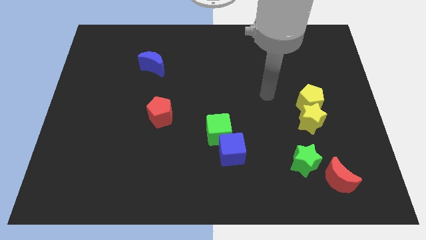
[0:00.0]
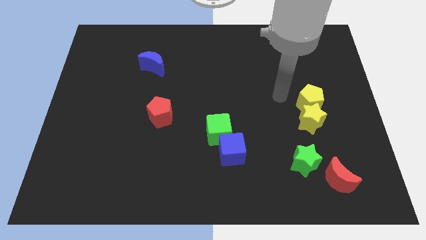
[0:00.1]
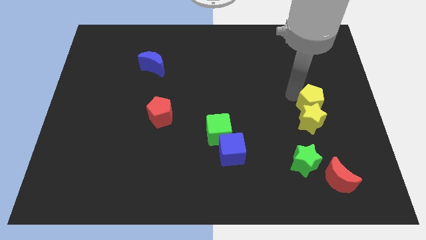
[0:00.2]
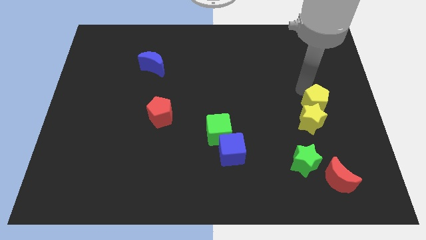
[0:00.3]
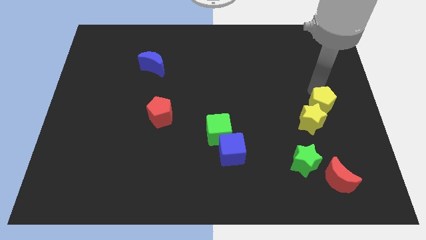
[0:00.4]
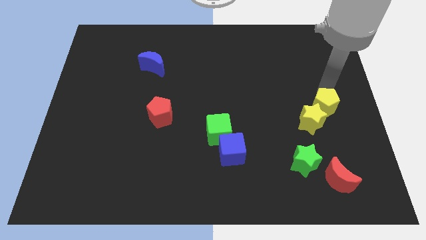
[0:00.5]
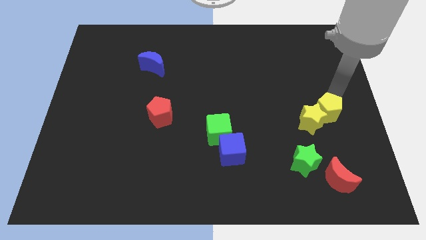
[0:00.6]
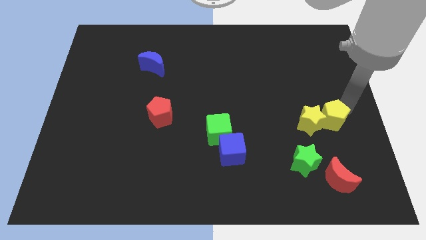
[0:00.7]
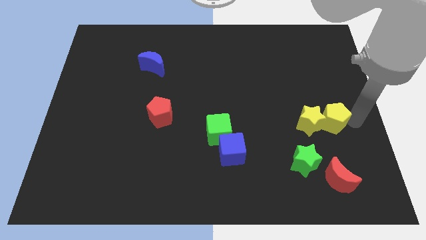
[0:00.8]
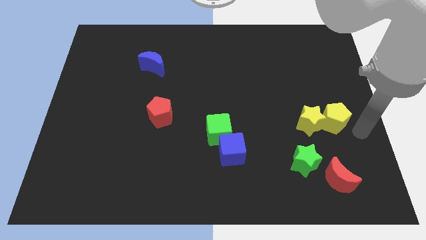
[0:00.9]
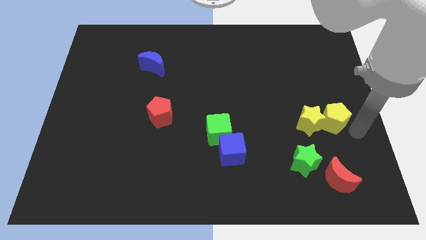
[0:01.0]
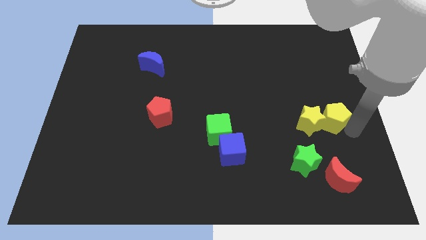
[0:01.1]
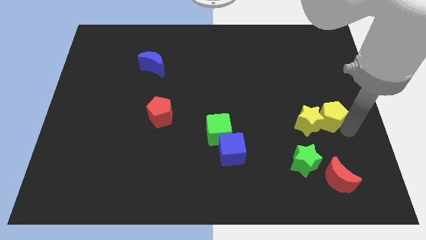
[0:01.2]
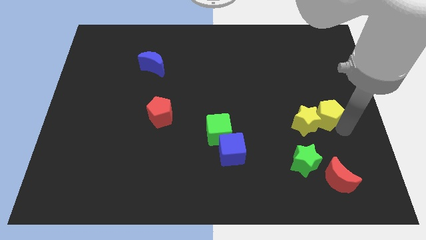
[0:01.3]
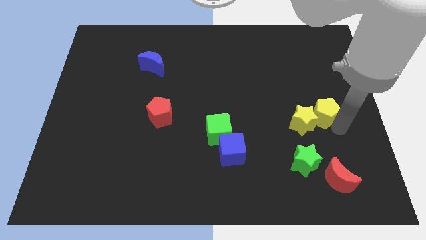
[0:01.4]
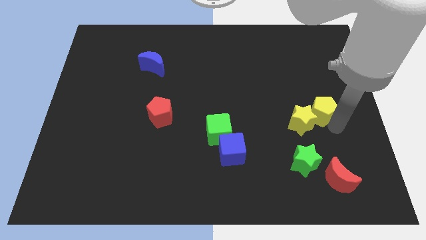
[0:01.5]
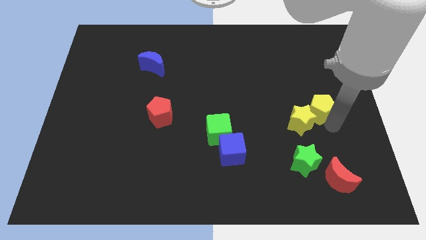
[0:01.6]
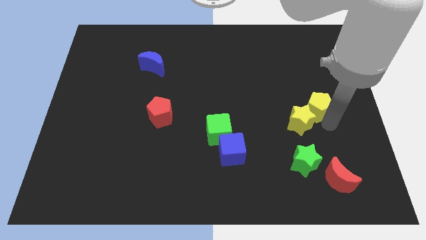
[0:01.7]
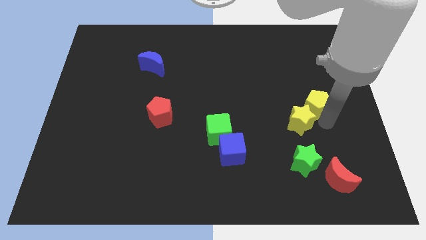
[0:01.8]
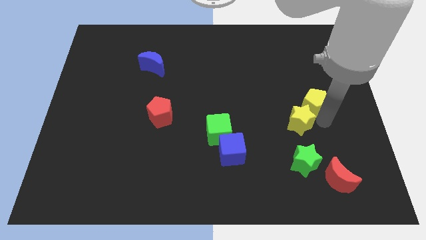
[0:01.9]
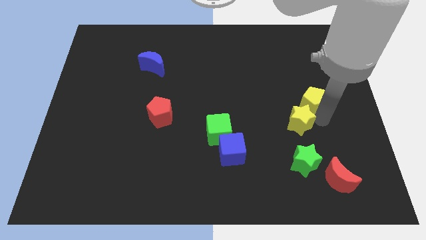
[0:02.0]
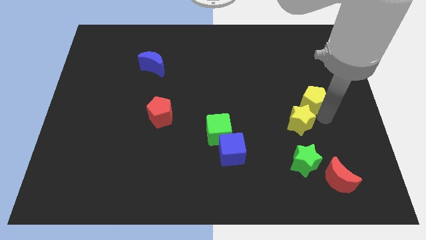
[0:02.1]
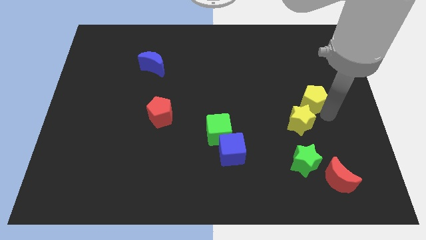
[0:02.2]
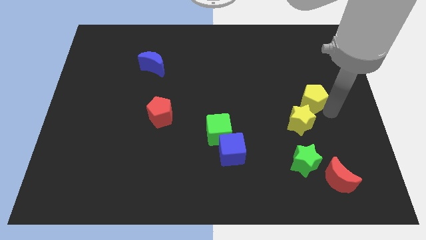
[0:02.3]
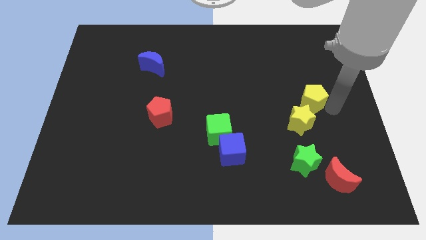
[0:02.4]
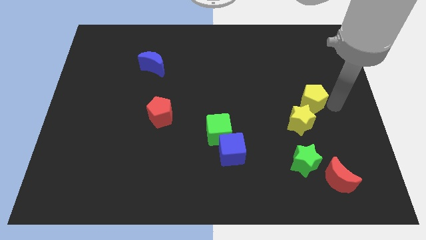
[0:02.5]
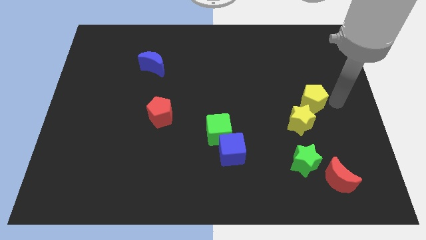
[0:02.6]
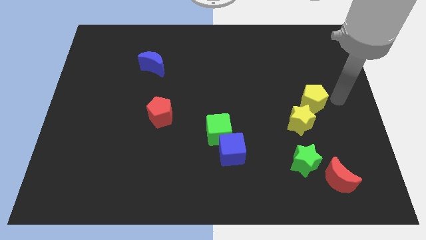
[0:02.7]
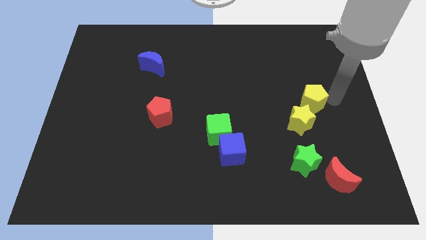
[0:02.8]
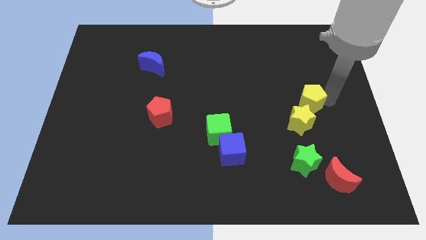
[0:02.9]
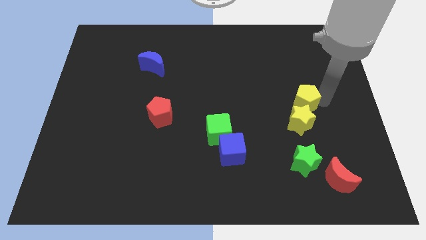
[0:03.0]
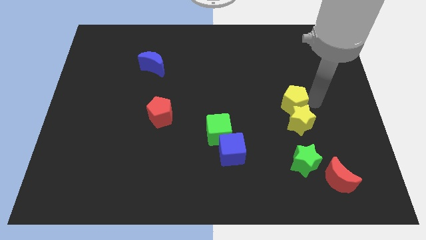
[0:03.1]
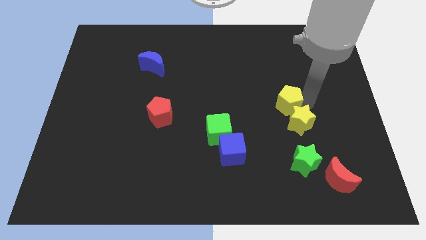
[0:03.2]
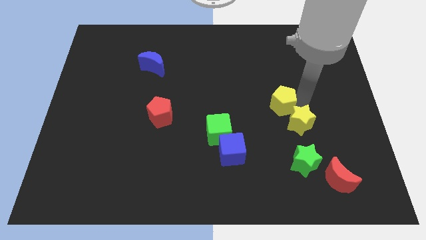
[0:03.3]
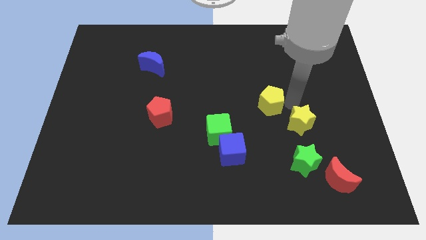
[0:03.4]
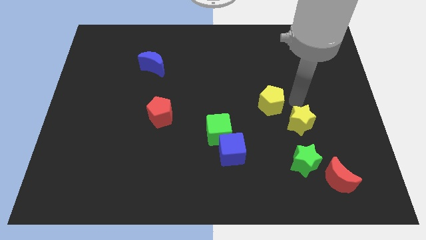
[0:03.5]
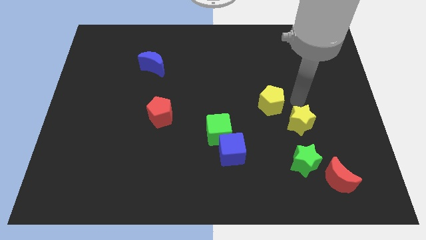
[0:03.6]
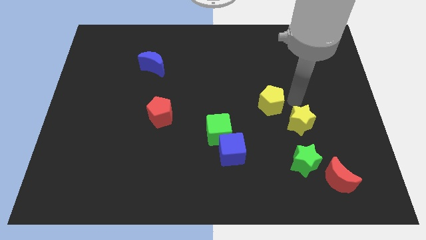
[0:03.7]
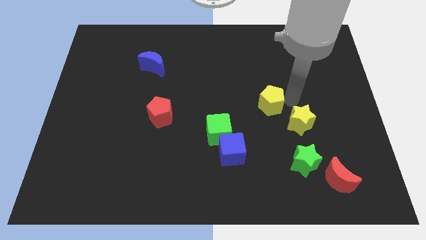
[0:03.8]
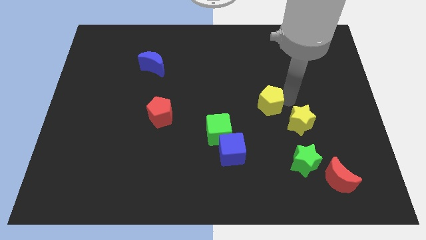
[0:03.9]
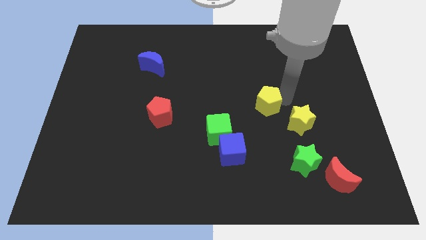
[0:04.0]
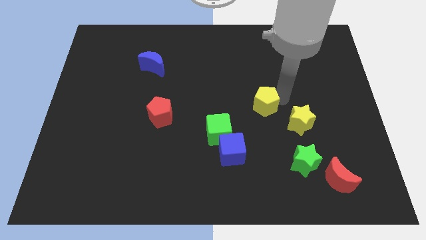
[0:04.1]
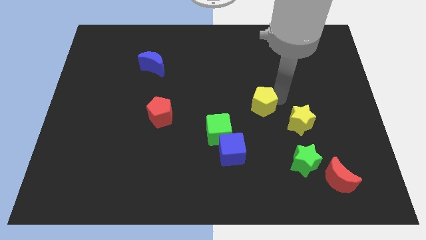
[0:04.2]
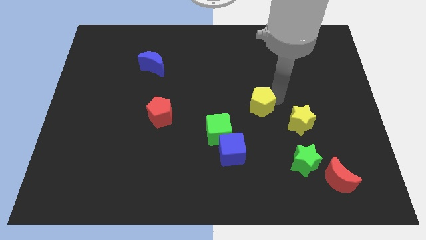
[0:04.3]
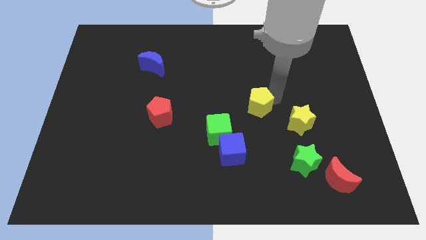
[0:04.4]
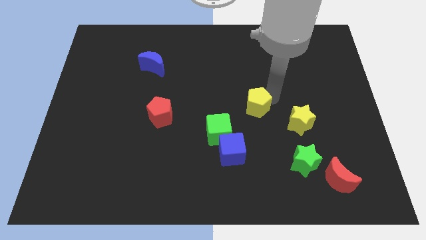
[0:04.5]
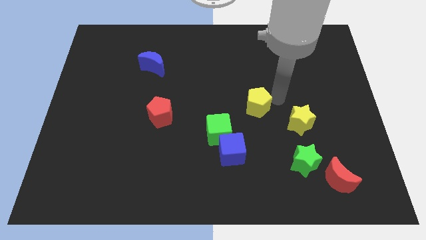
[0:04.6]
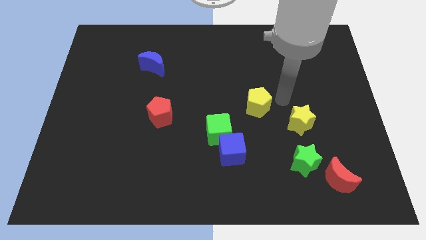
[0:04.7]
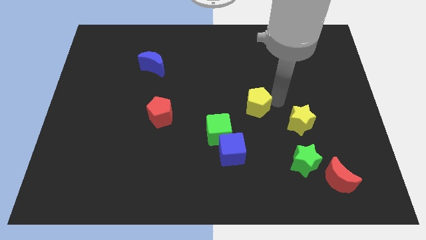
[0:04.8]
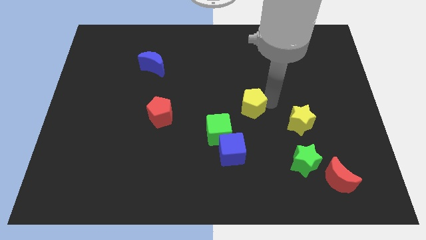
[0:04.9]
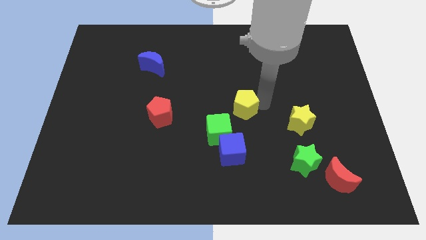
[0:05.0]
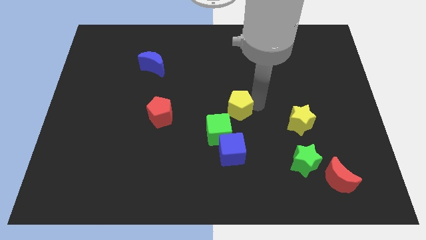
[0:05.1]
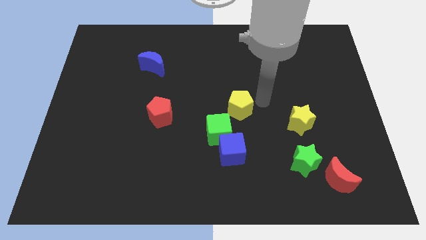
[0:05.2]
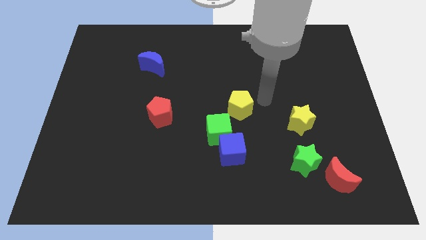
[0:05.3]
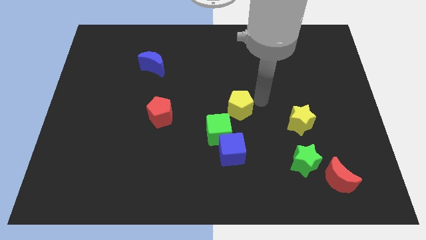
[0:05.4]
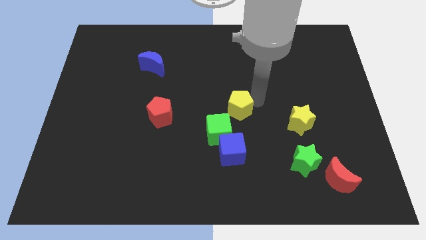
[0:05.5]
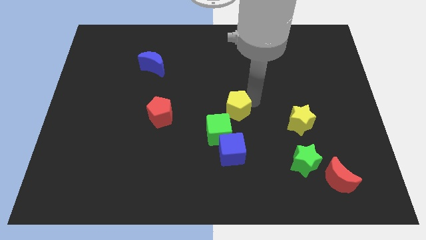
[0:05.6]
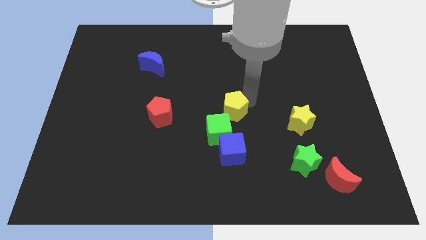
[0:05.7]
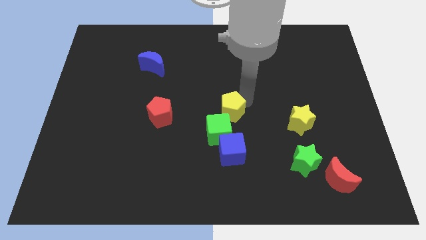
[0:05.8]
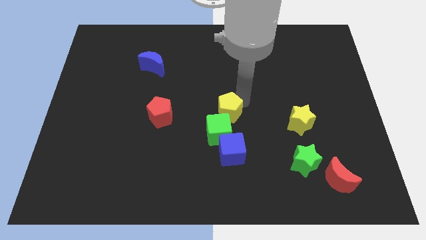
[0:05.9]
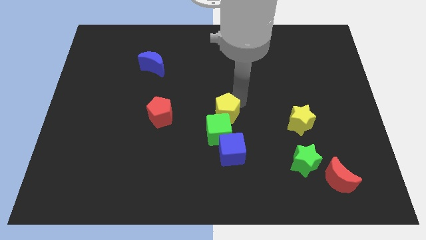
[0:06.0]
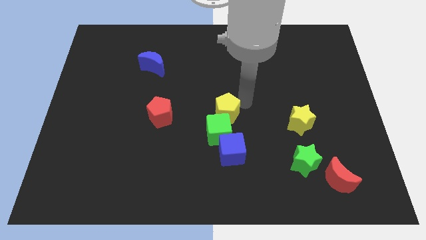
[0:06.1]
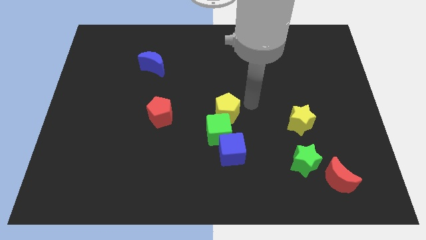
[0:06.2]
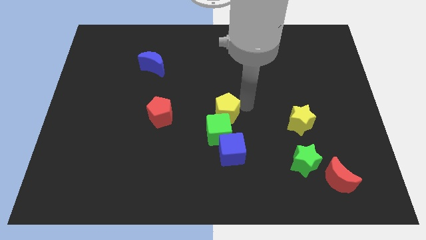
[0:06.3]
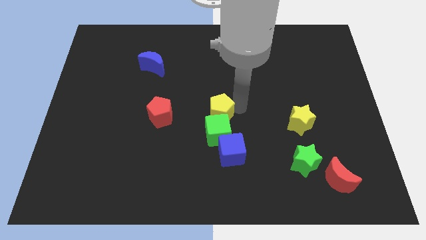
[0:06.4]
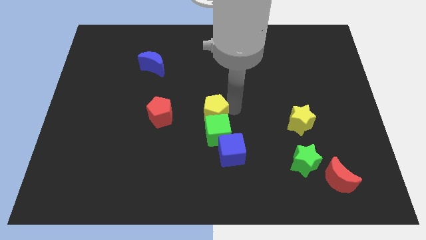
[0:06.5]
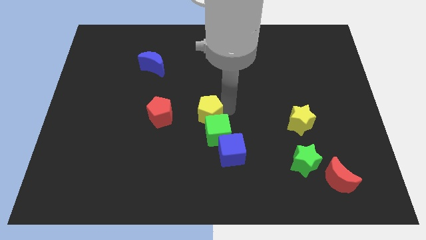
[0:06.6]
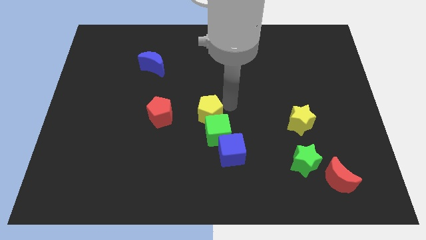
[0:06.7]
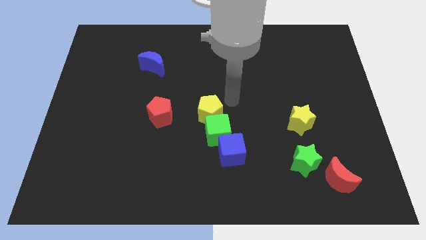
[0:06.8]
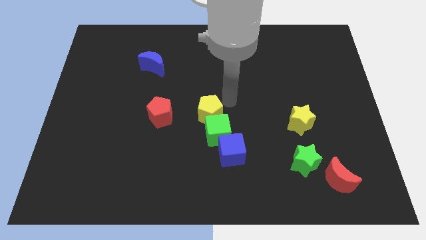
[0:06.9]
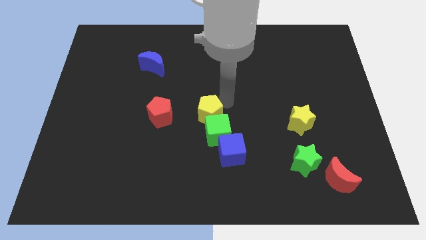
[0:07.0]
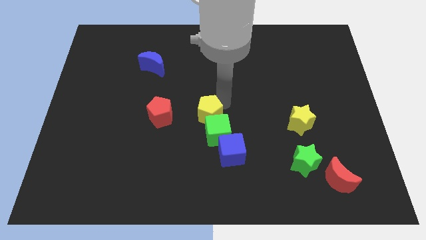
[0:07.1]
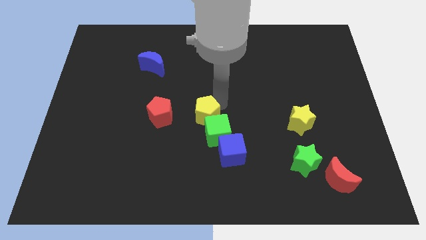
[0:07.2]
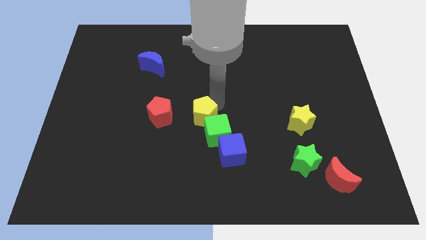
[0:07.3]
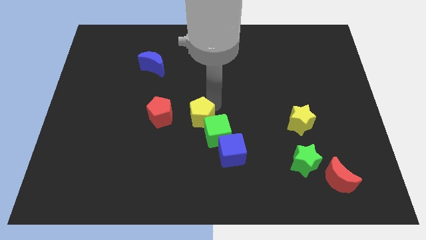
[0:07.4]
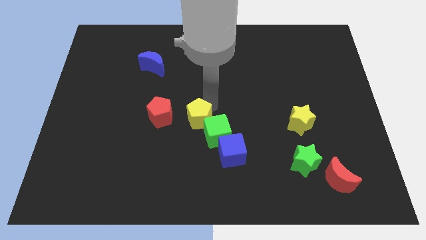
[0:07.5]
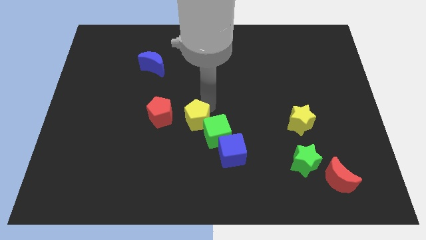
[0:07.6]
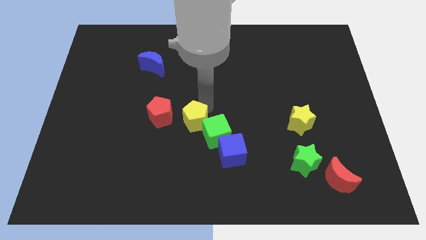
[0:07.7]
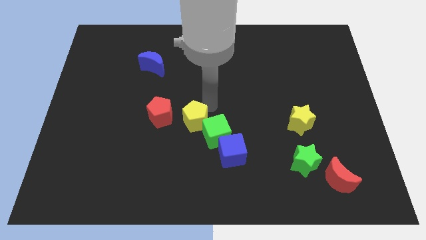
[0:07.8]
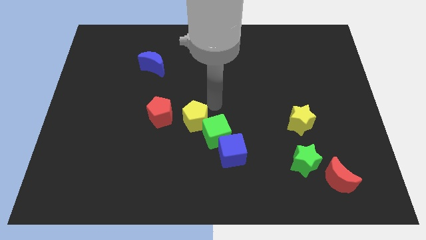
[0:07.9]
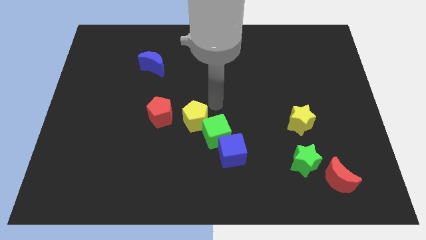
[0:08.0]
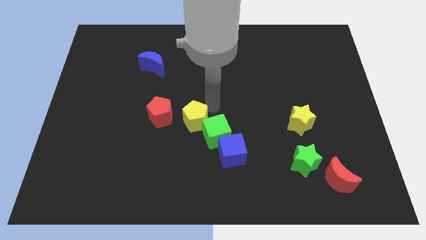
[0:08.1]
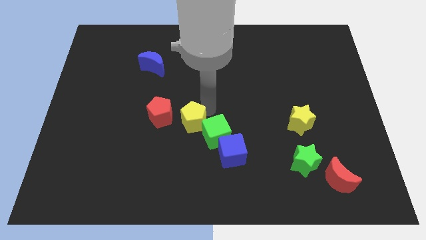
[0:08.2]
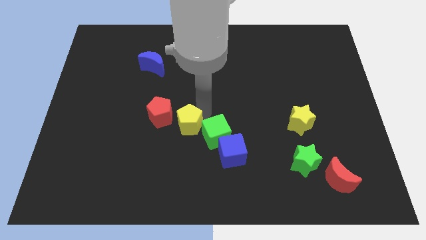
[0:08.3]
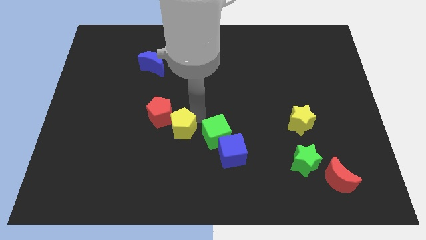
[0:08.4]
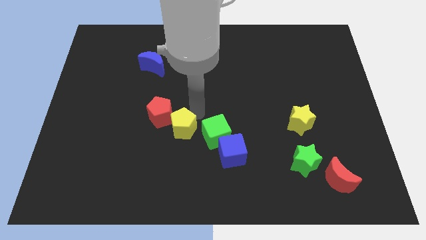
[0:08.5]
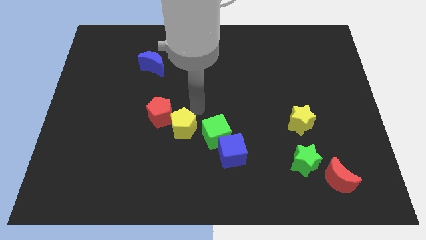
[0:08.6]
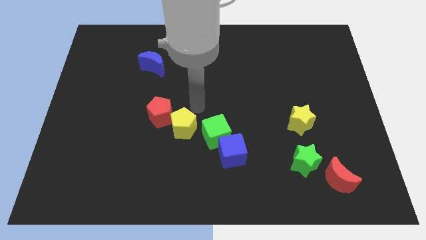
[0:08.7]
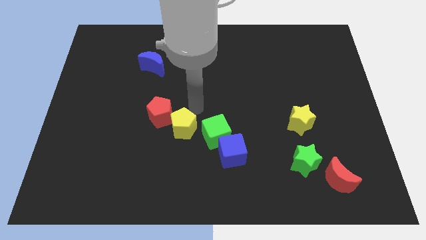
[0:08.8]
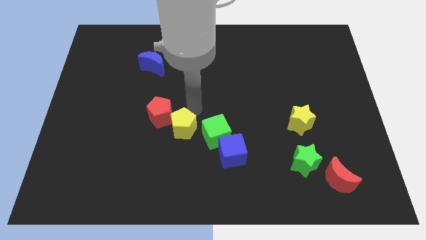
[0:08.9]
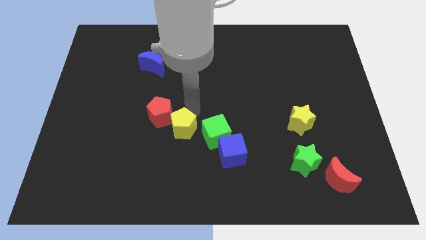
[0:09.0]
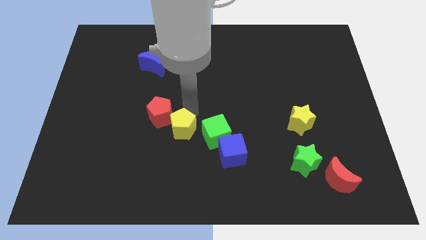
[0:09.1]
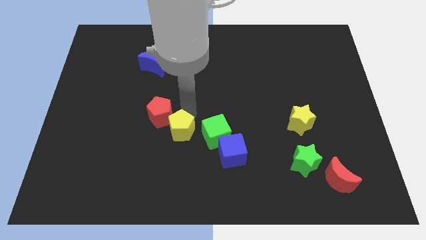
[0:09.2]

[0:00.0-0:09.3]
put the yellow pentagon below the red pentagon
